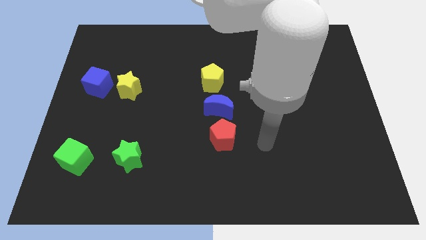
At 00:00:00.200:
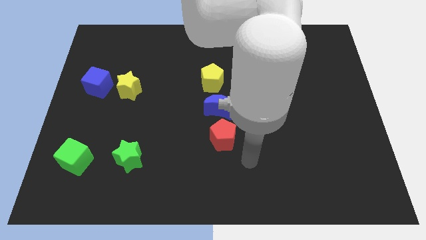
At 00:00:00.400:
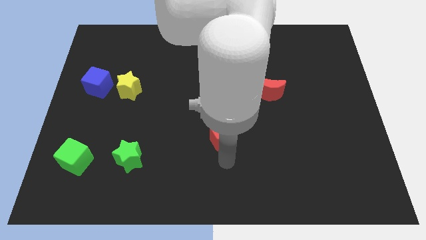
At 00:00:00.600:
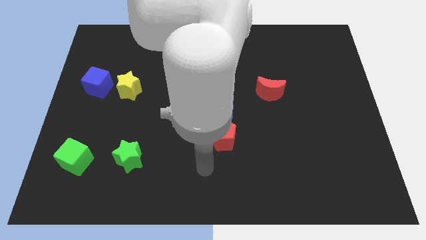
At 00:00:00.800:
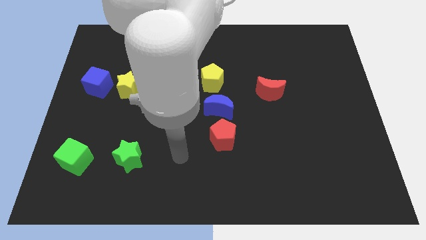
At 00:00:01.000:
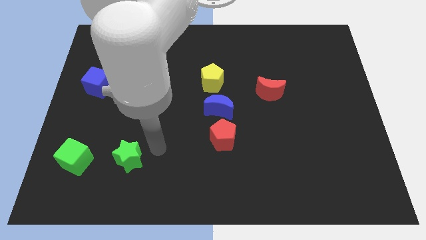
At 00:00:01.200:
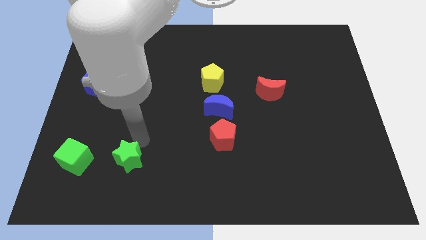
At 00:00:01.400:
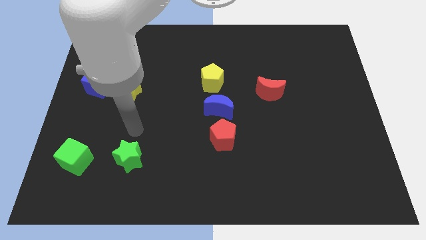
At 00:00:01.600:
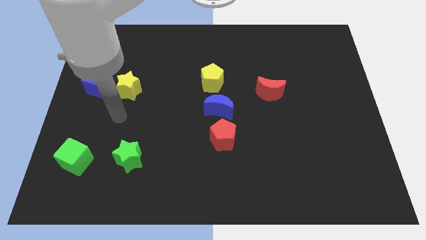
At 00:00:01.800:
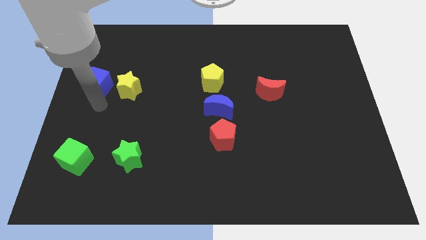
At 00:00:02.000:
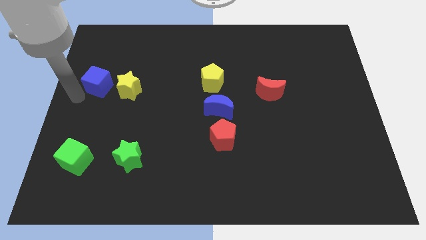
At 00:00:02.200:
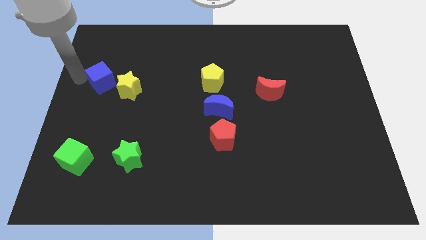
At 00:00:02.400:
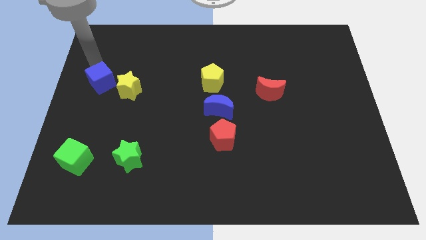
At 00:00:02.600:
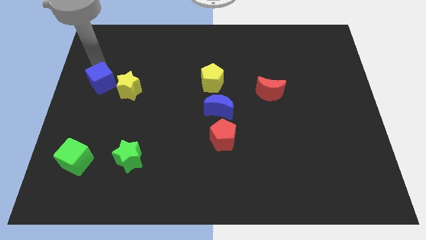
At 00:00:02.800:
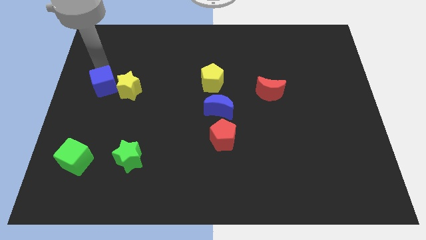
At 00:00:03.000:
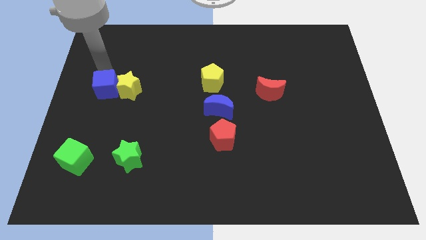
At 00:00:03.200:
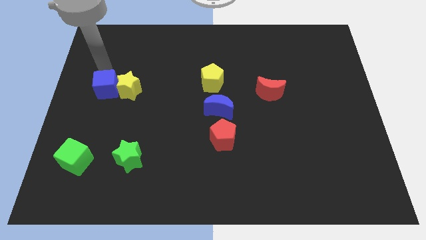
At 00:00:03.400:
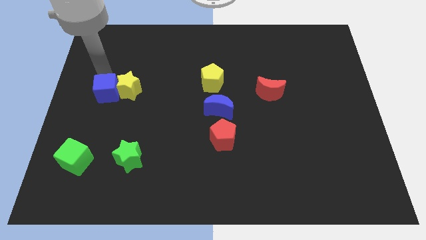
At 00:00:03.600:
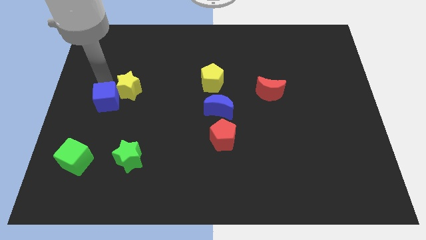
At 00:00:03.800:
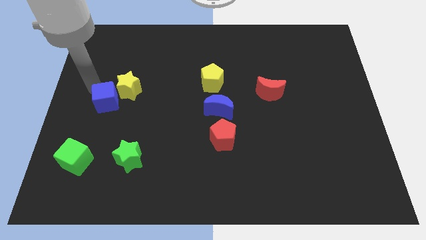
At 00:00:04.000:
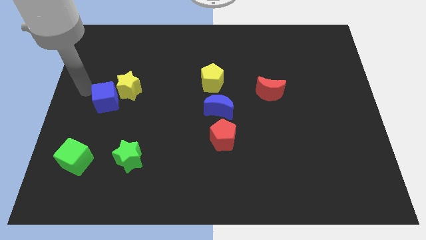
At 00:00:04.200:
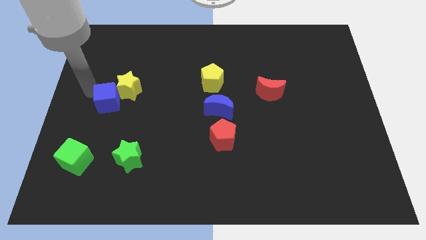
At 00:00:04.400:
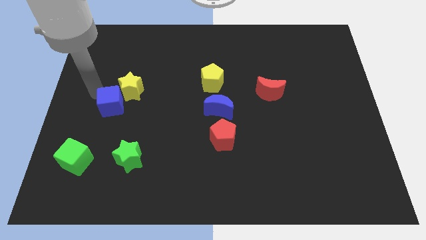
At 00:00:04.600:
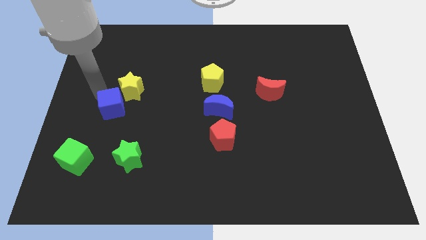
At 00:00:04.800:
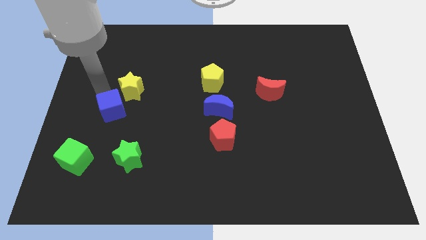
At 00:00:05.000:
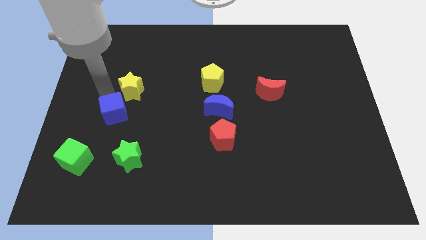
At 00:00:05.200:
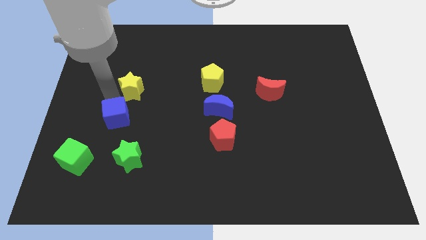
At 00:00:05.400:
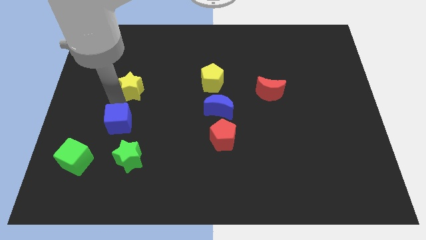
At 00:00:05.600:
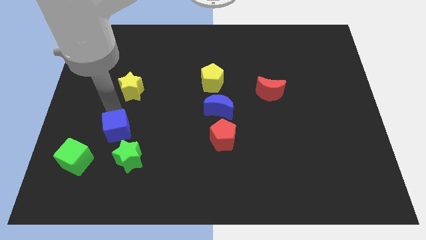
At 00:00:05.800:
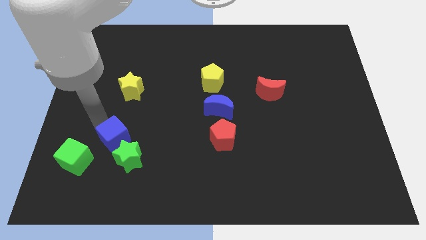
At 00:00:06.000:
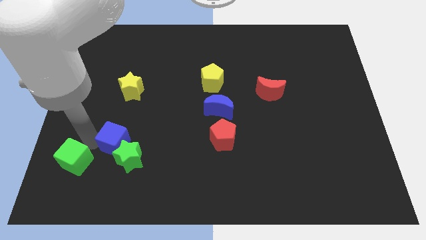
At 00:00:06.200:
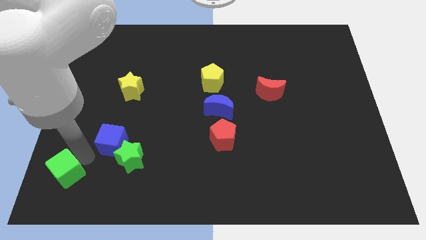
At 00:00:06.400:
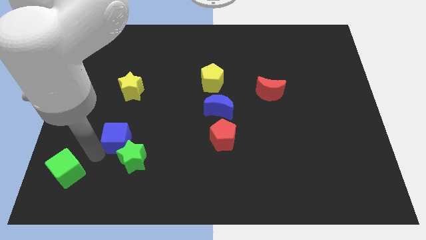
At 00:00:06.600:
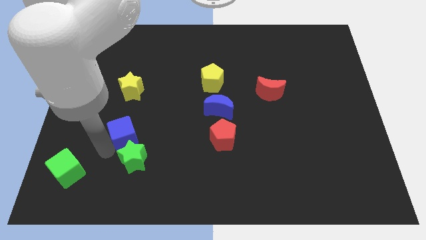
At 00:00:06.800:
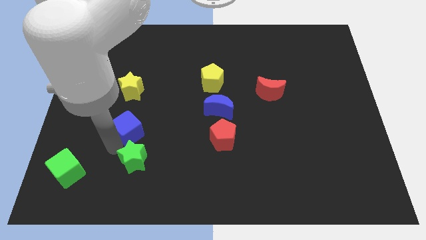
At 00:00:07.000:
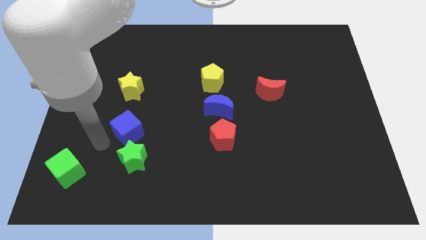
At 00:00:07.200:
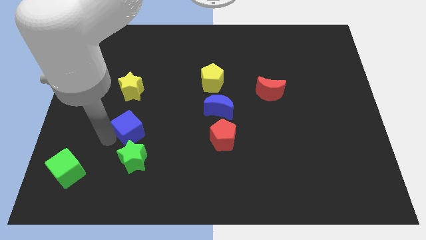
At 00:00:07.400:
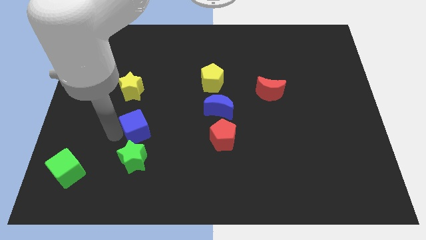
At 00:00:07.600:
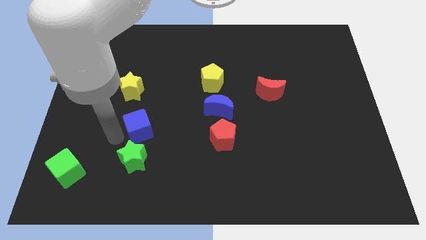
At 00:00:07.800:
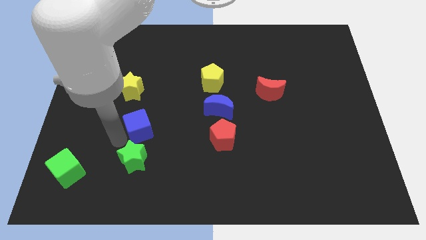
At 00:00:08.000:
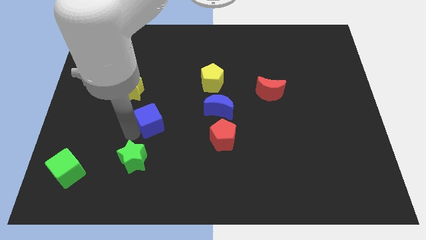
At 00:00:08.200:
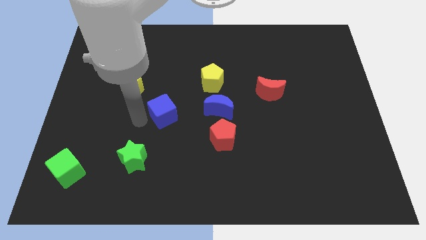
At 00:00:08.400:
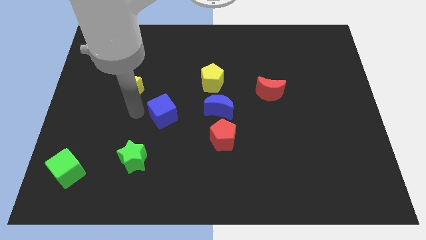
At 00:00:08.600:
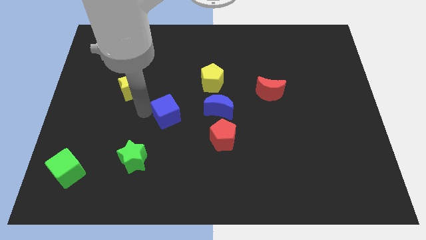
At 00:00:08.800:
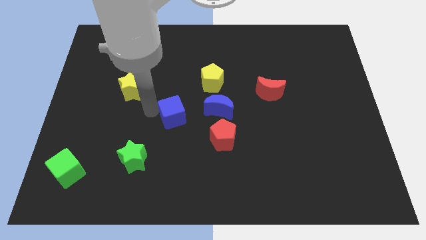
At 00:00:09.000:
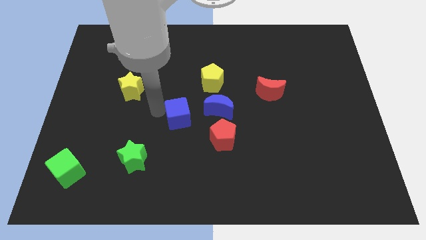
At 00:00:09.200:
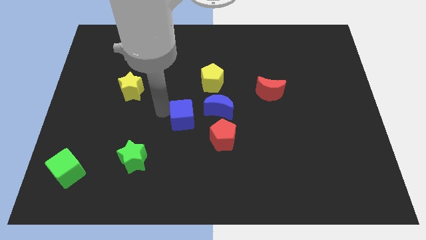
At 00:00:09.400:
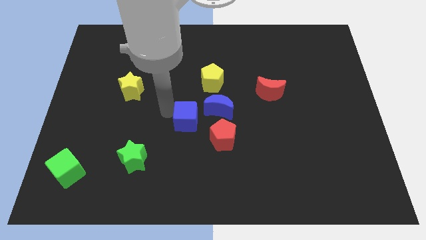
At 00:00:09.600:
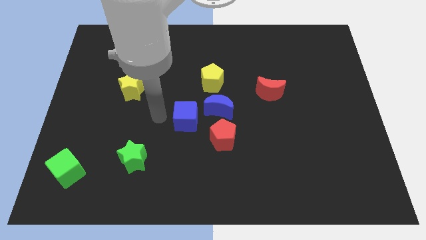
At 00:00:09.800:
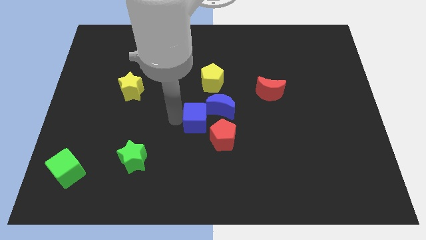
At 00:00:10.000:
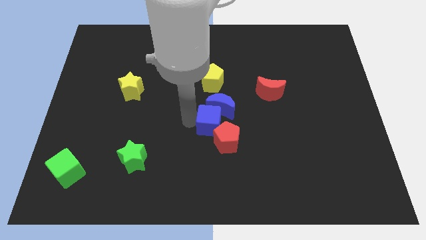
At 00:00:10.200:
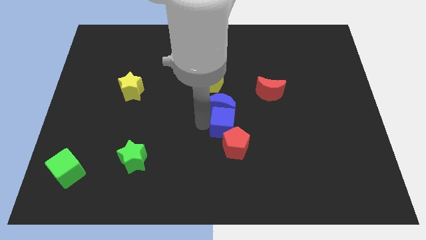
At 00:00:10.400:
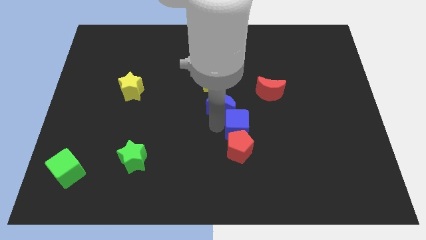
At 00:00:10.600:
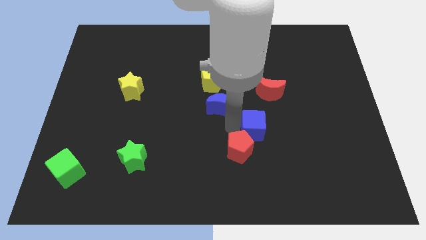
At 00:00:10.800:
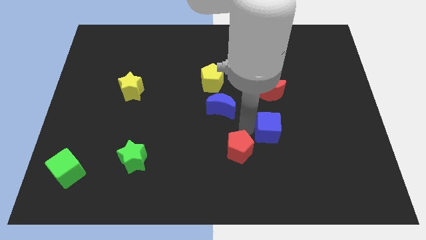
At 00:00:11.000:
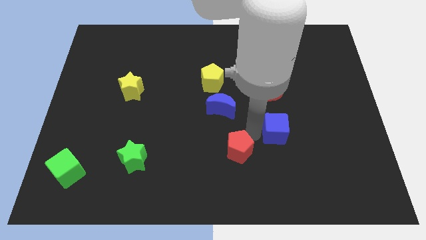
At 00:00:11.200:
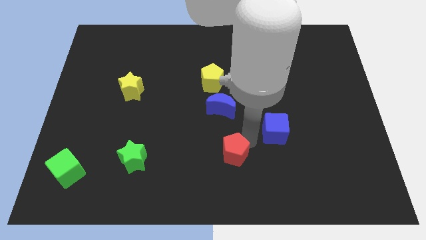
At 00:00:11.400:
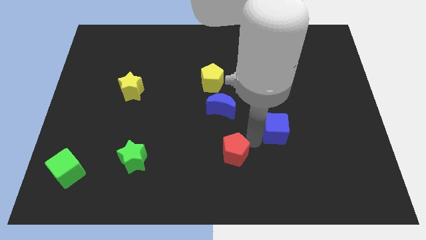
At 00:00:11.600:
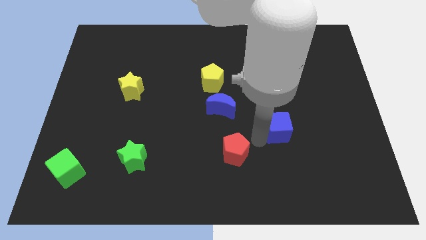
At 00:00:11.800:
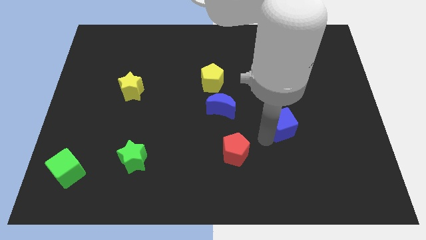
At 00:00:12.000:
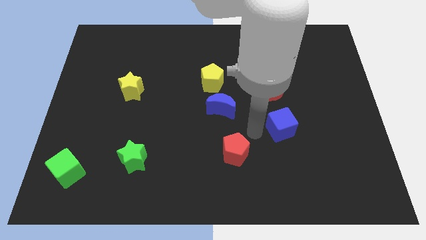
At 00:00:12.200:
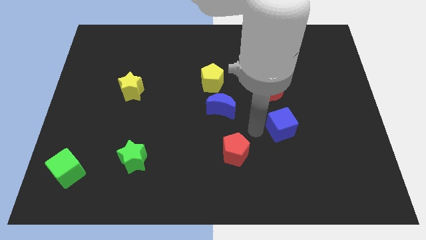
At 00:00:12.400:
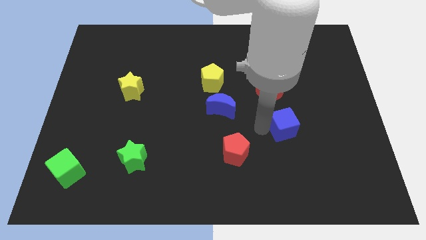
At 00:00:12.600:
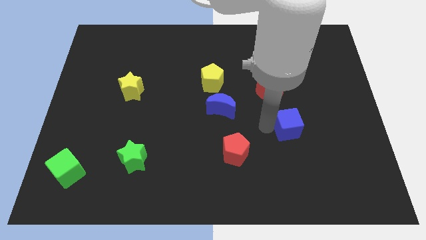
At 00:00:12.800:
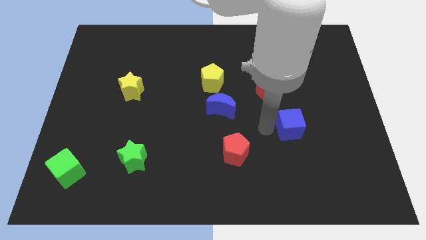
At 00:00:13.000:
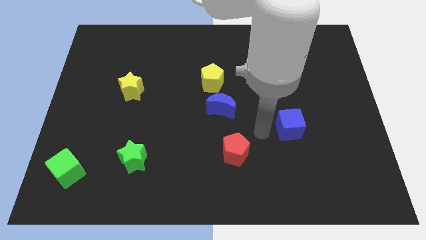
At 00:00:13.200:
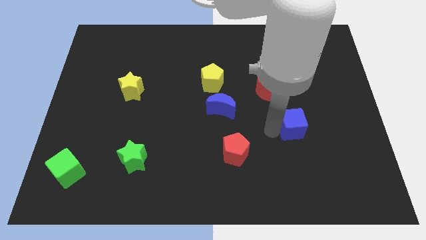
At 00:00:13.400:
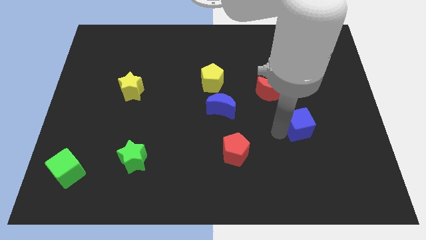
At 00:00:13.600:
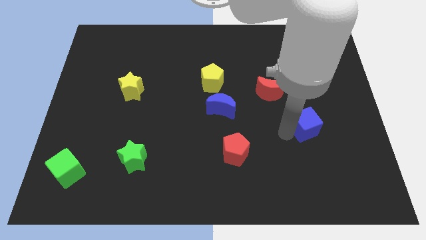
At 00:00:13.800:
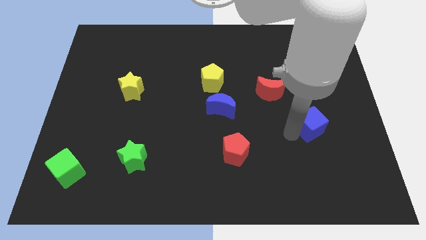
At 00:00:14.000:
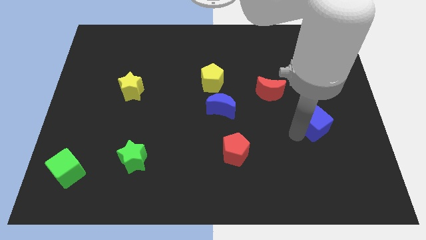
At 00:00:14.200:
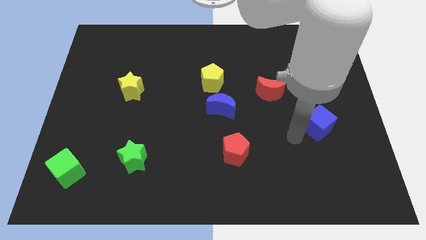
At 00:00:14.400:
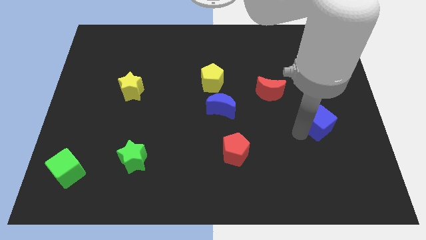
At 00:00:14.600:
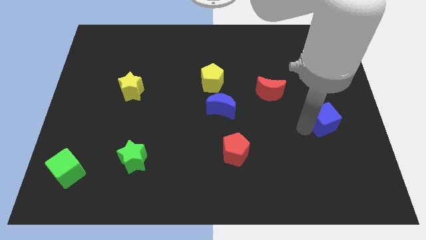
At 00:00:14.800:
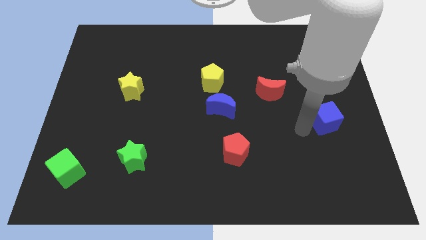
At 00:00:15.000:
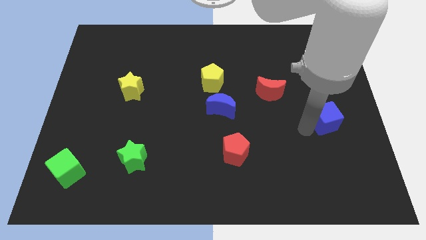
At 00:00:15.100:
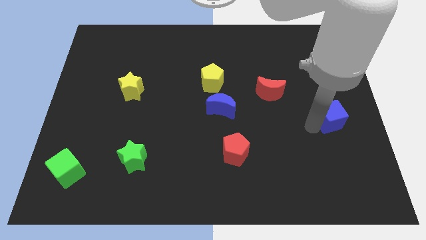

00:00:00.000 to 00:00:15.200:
push the blue cube to the center right
